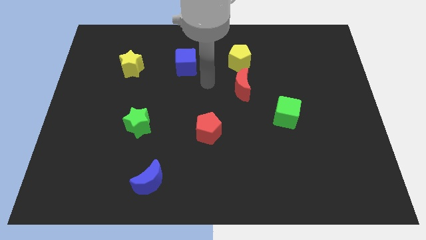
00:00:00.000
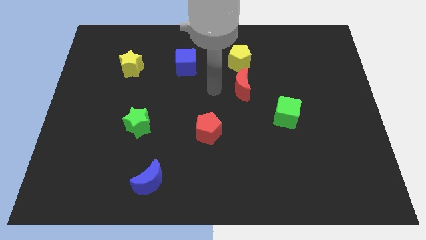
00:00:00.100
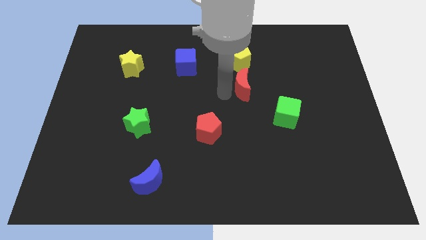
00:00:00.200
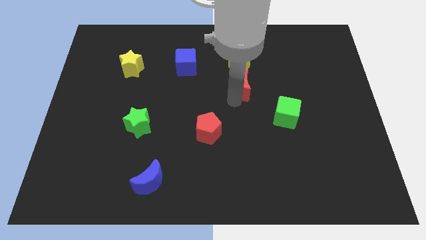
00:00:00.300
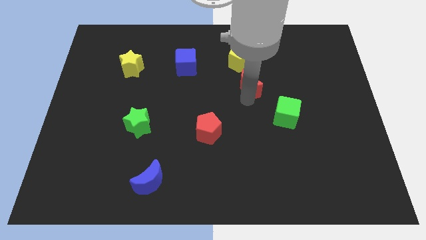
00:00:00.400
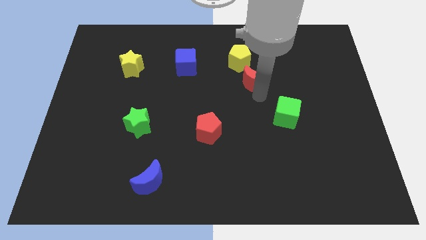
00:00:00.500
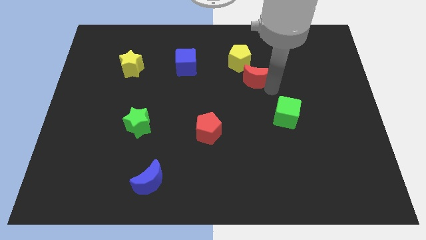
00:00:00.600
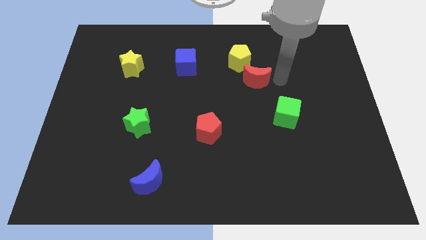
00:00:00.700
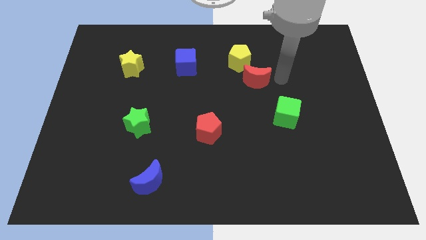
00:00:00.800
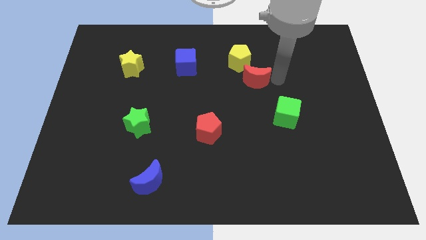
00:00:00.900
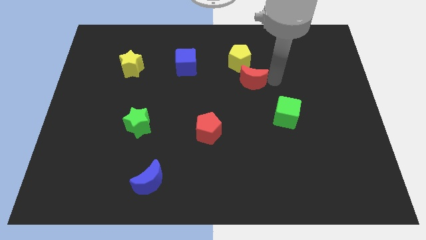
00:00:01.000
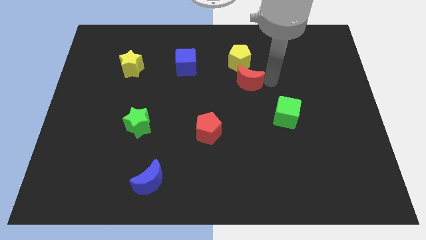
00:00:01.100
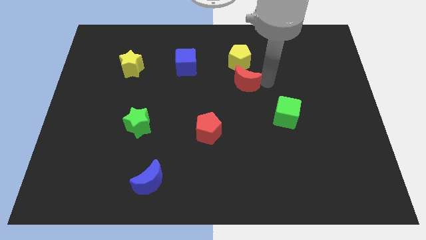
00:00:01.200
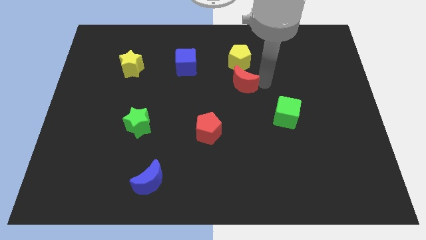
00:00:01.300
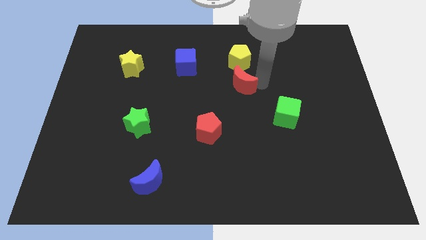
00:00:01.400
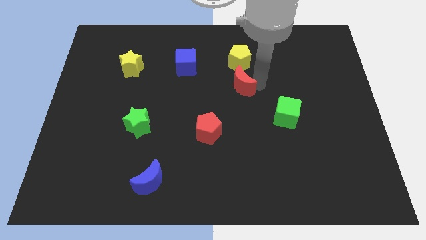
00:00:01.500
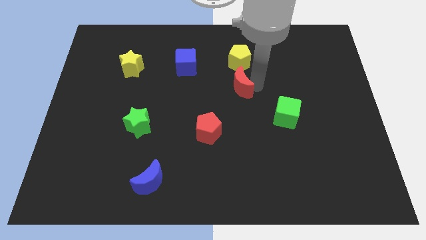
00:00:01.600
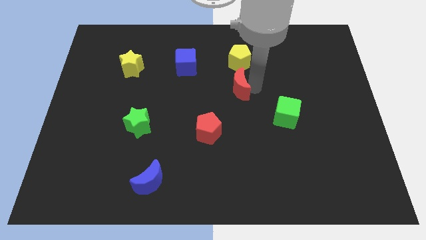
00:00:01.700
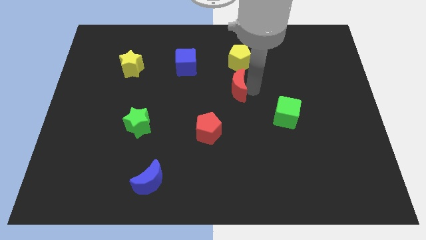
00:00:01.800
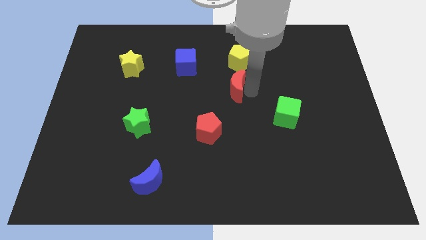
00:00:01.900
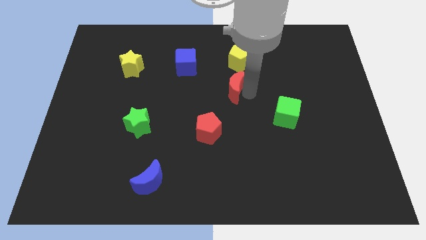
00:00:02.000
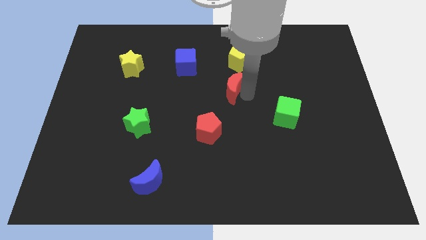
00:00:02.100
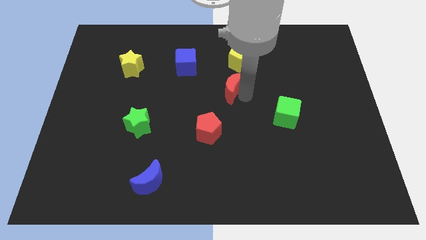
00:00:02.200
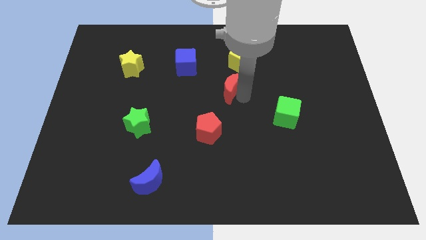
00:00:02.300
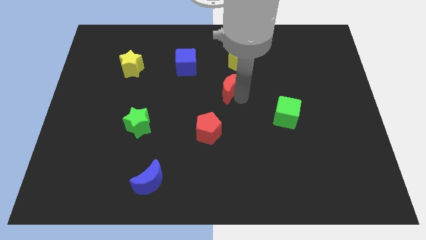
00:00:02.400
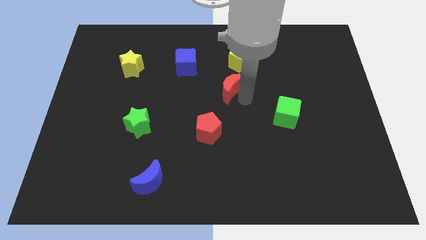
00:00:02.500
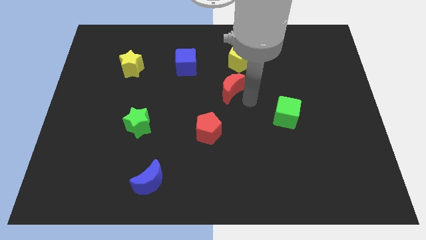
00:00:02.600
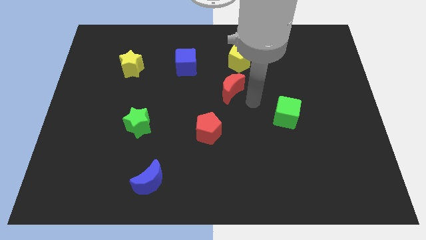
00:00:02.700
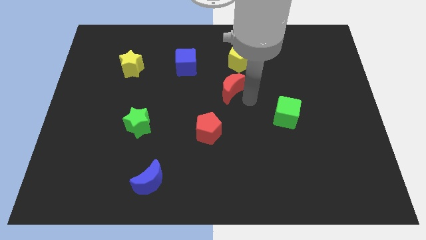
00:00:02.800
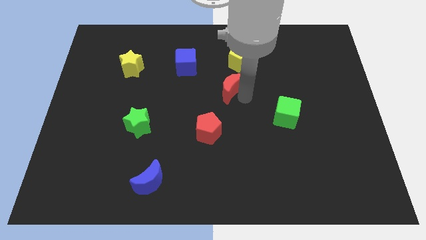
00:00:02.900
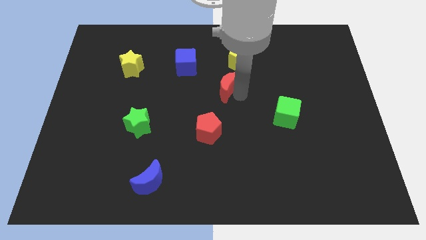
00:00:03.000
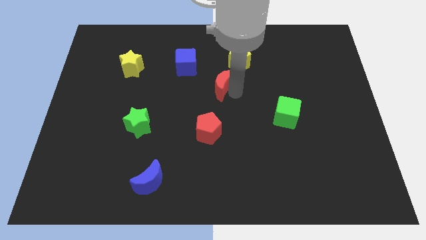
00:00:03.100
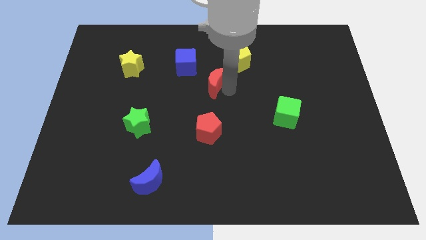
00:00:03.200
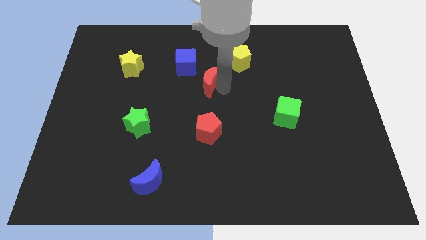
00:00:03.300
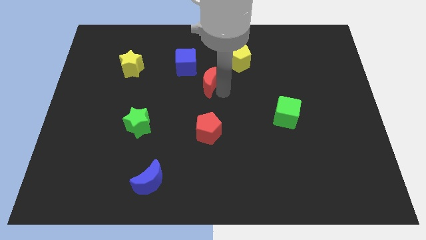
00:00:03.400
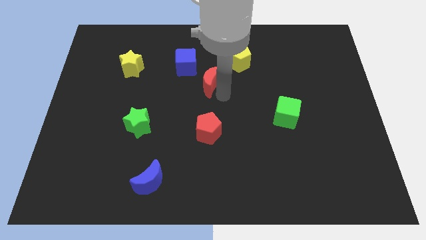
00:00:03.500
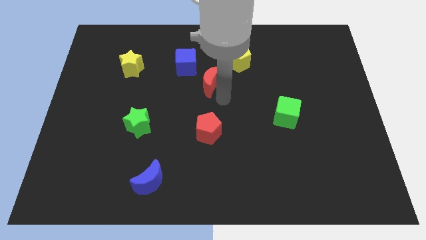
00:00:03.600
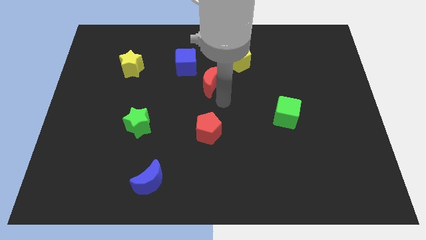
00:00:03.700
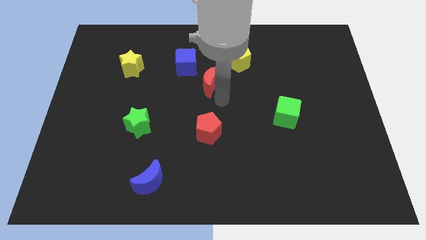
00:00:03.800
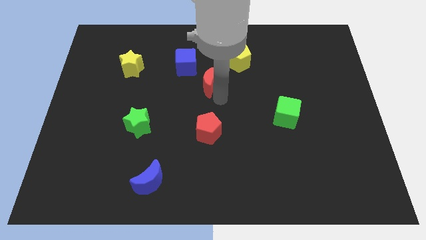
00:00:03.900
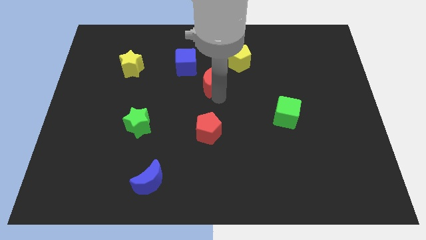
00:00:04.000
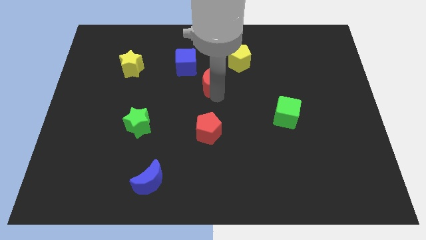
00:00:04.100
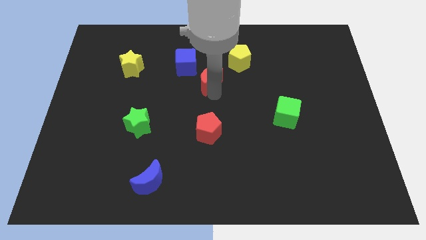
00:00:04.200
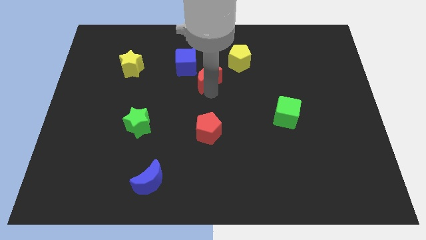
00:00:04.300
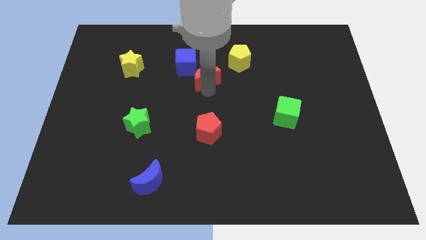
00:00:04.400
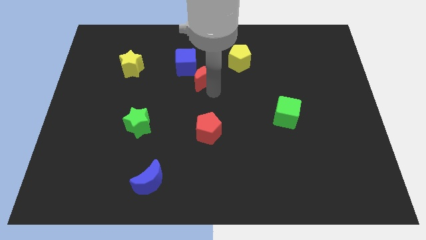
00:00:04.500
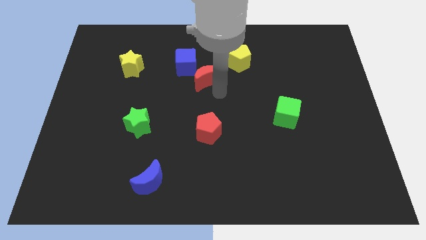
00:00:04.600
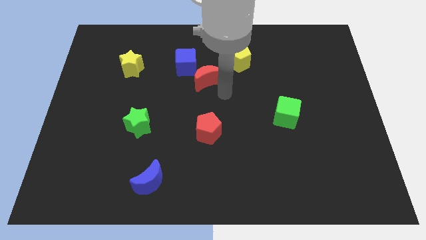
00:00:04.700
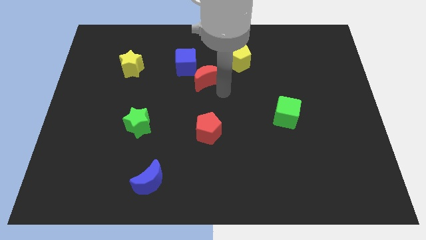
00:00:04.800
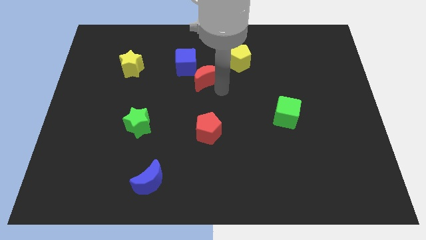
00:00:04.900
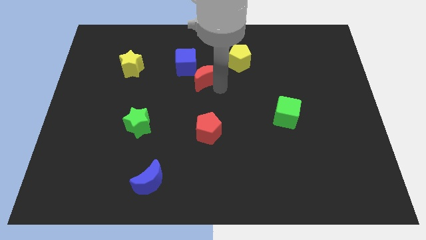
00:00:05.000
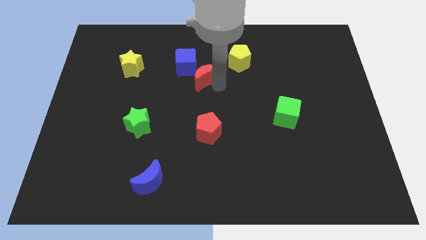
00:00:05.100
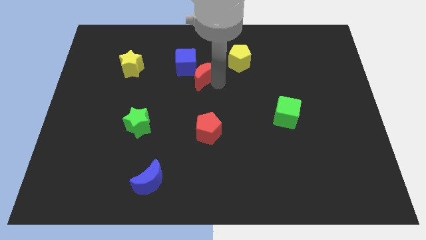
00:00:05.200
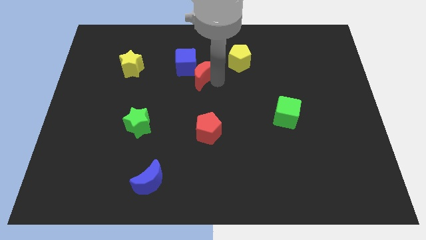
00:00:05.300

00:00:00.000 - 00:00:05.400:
push the red moon towards the blue cube

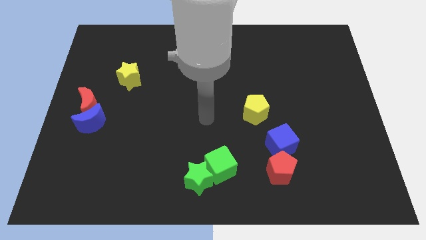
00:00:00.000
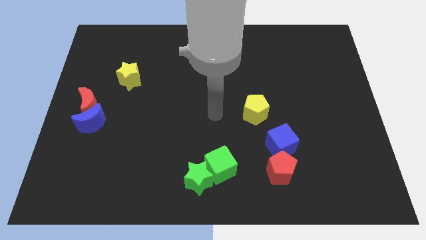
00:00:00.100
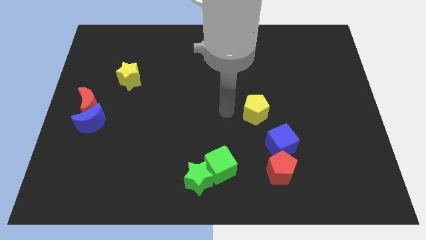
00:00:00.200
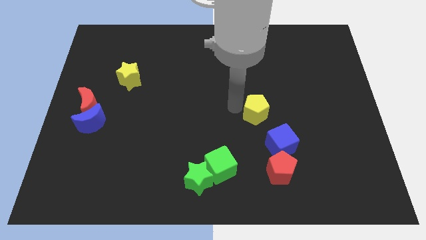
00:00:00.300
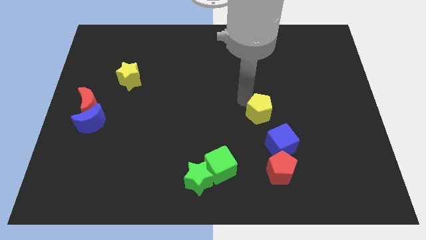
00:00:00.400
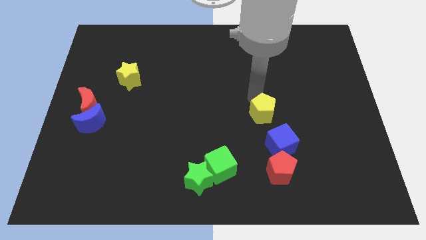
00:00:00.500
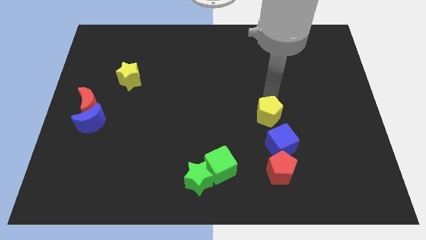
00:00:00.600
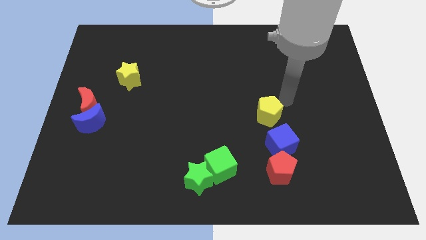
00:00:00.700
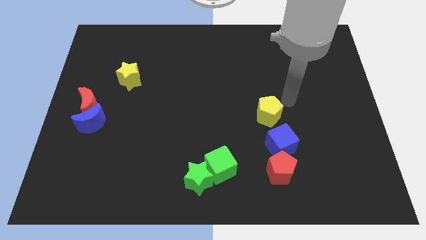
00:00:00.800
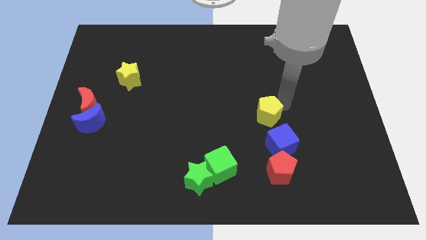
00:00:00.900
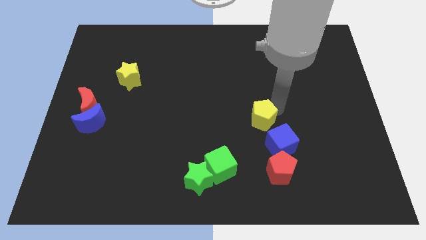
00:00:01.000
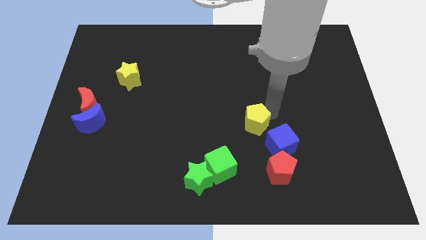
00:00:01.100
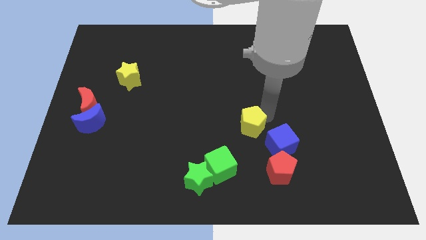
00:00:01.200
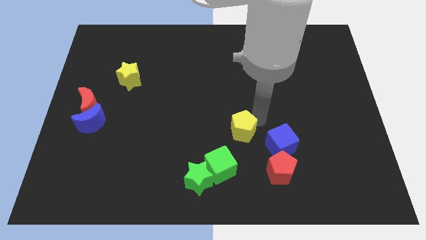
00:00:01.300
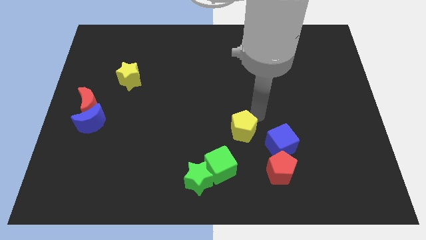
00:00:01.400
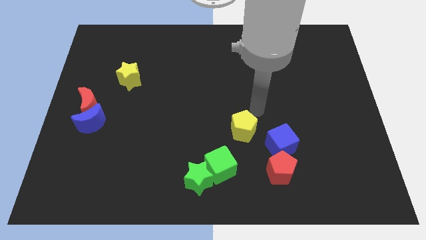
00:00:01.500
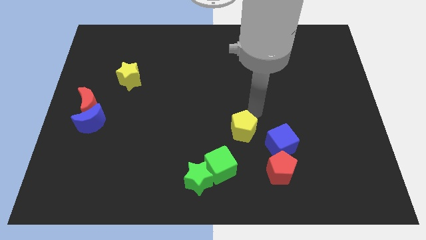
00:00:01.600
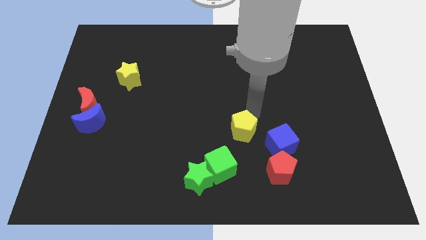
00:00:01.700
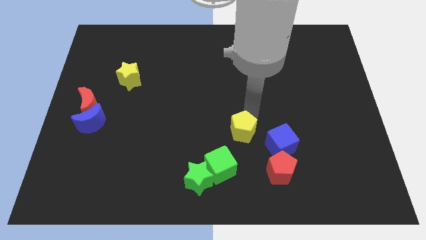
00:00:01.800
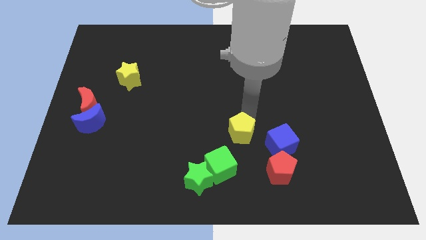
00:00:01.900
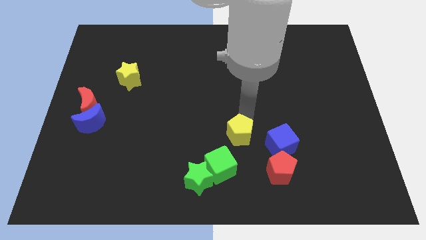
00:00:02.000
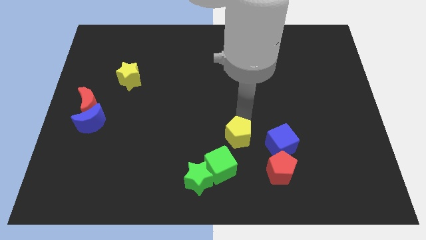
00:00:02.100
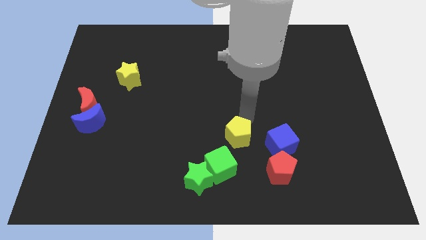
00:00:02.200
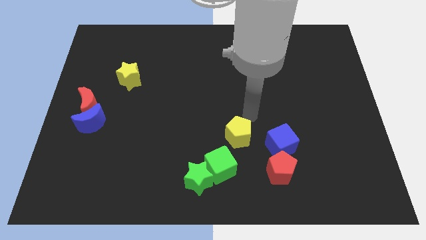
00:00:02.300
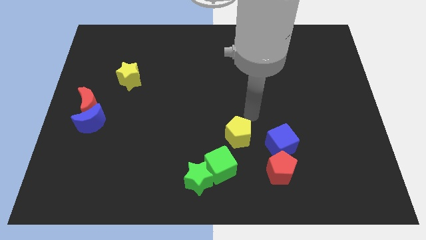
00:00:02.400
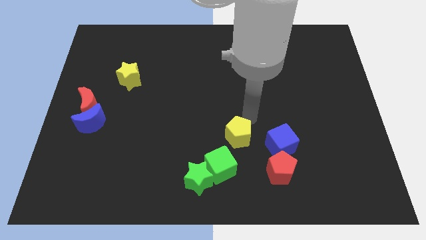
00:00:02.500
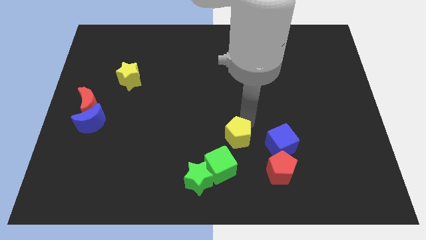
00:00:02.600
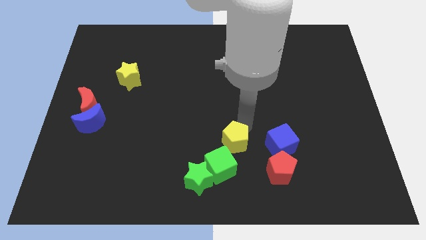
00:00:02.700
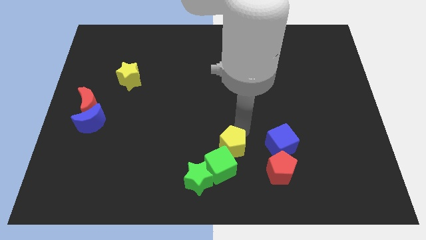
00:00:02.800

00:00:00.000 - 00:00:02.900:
push the yellow pentagon towards the green cube
